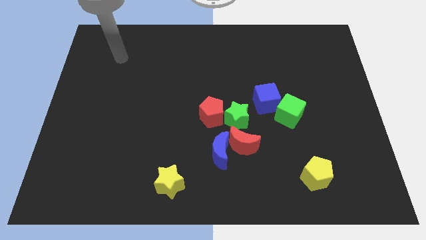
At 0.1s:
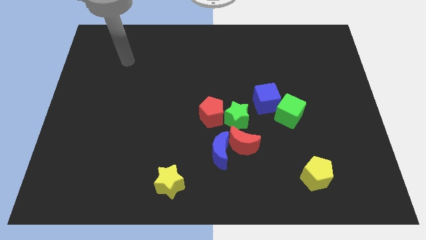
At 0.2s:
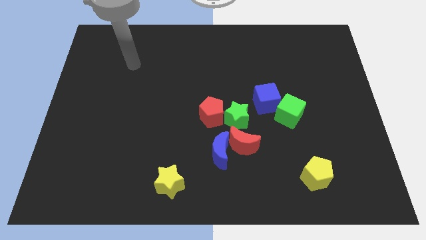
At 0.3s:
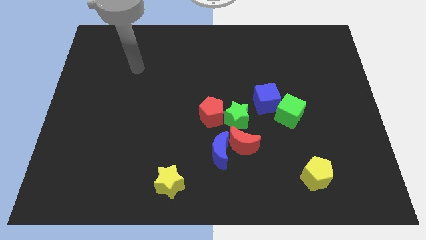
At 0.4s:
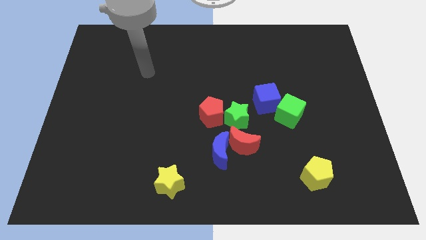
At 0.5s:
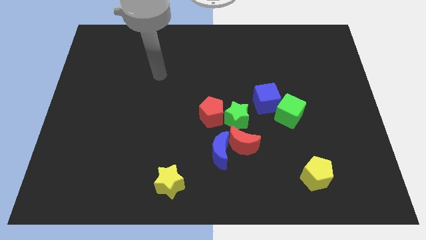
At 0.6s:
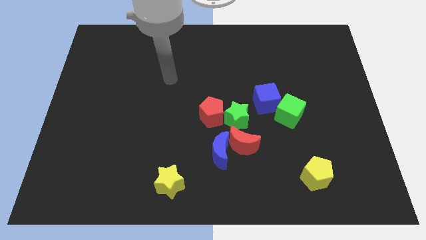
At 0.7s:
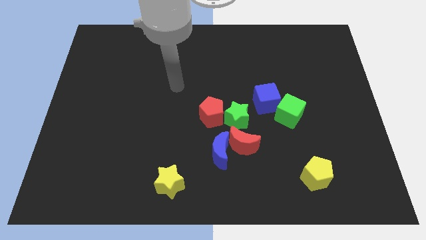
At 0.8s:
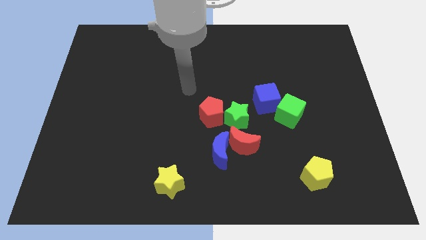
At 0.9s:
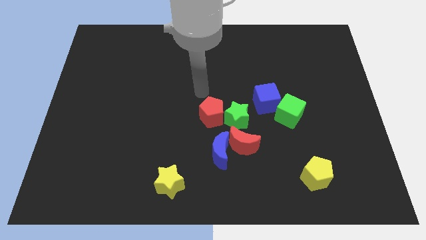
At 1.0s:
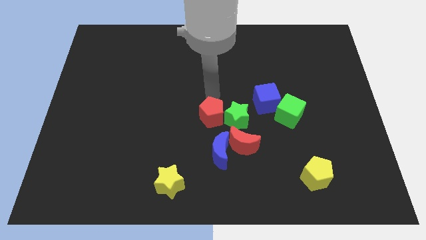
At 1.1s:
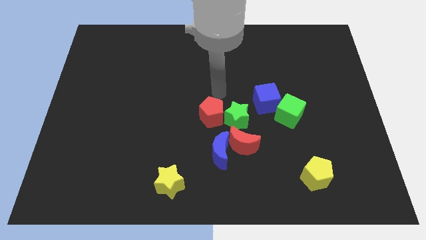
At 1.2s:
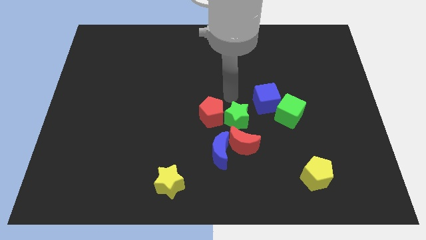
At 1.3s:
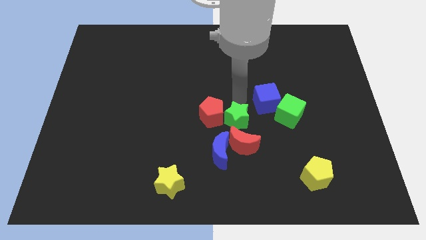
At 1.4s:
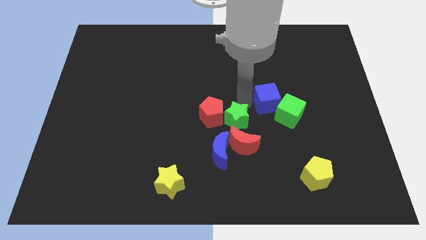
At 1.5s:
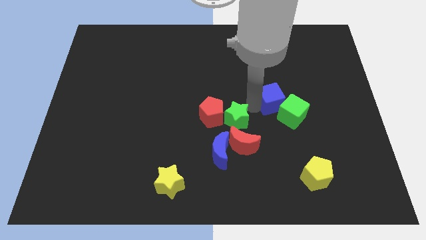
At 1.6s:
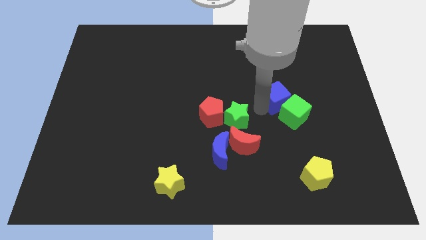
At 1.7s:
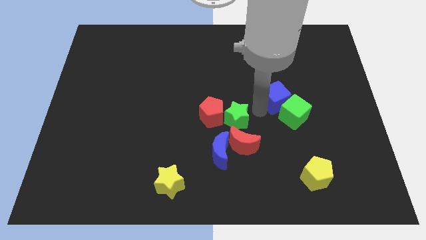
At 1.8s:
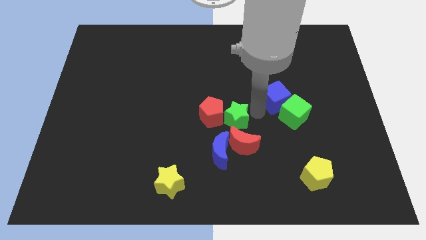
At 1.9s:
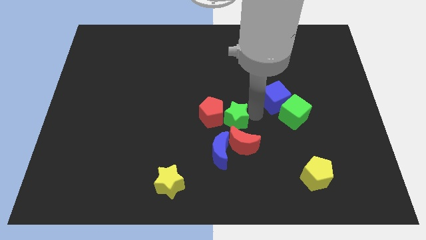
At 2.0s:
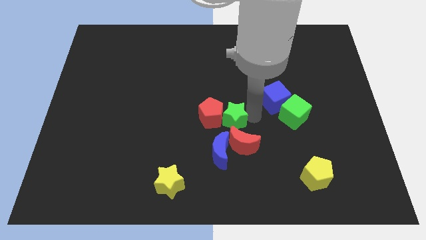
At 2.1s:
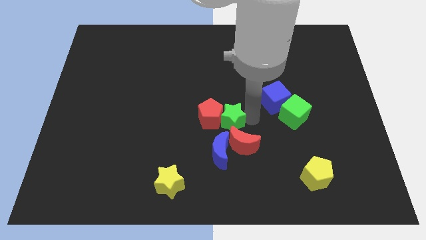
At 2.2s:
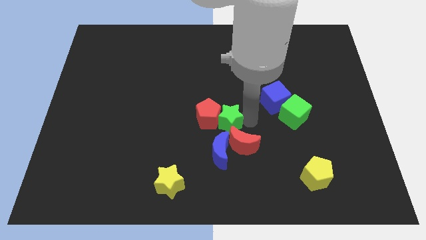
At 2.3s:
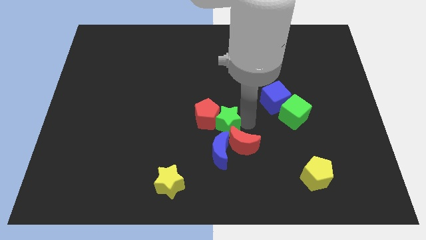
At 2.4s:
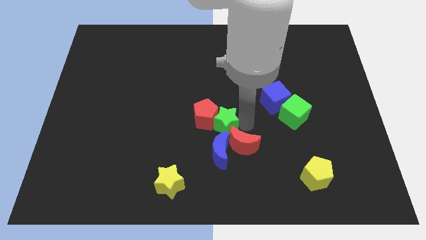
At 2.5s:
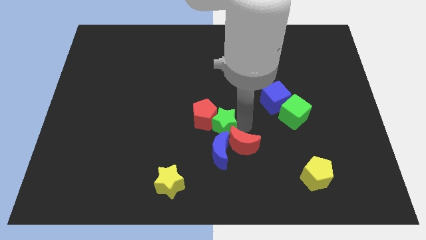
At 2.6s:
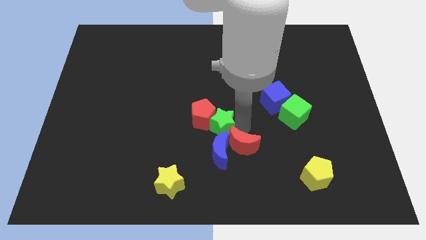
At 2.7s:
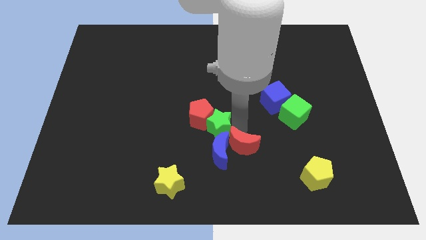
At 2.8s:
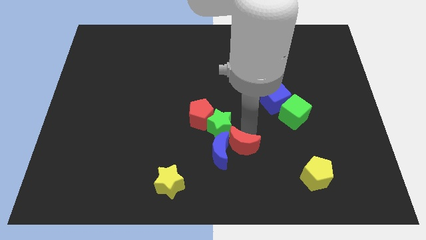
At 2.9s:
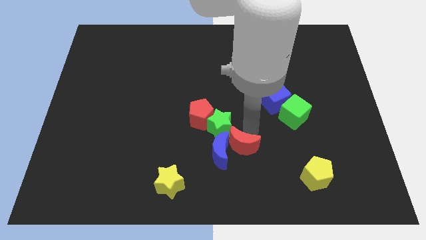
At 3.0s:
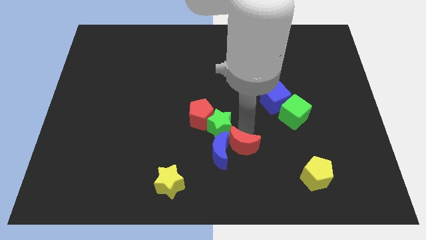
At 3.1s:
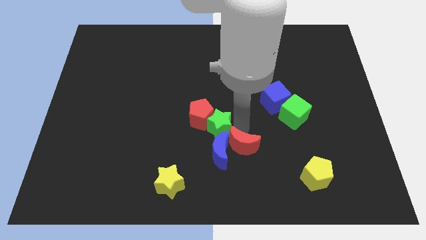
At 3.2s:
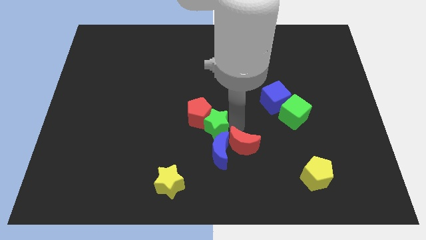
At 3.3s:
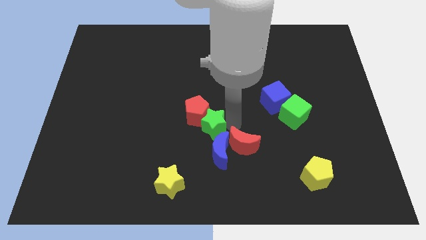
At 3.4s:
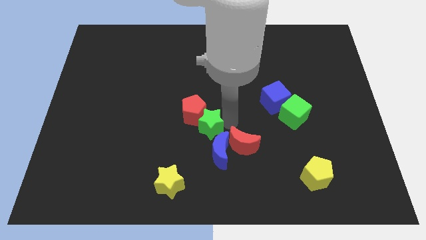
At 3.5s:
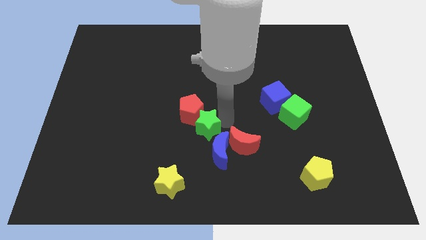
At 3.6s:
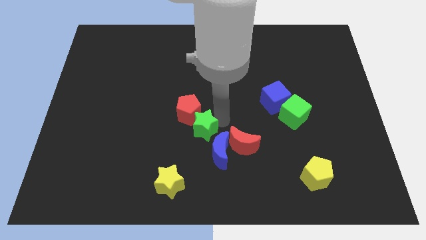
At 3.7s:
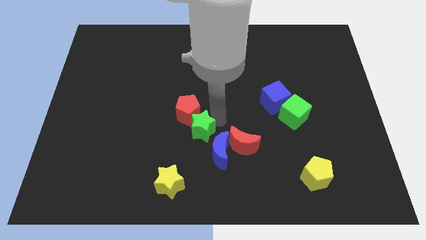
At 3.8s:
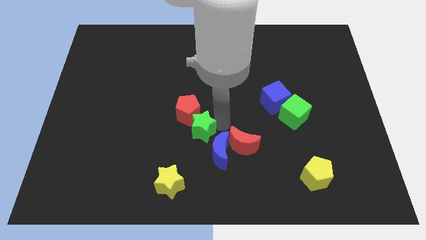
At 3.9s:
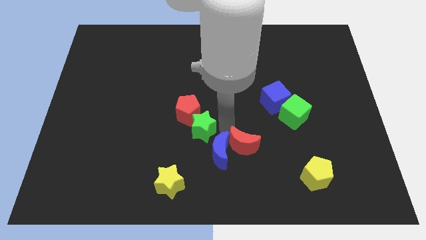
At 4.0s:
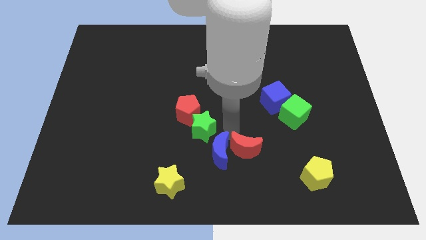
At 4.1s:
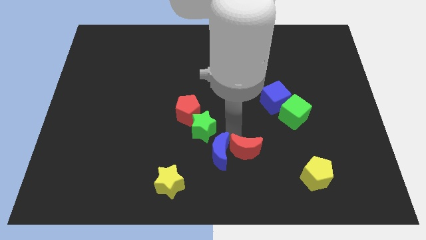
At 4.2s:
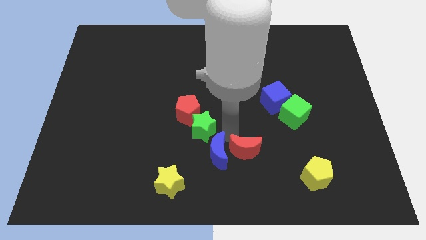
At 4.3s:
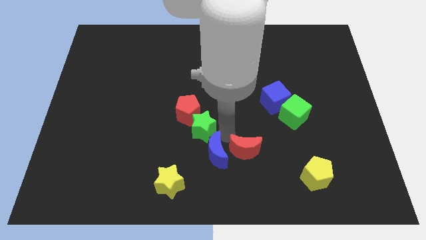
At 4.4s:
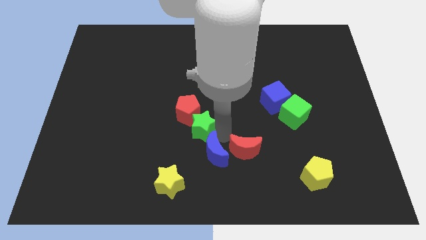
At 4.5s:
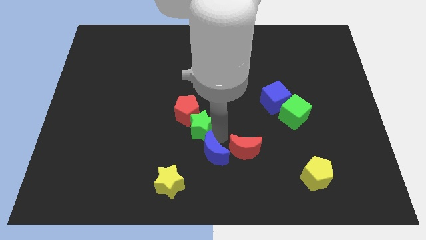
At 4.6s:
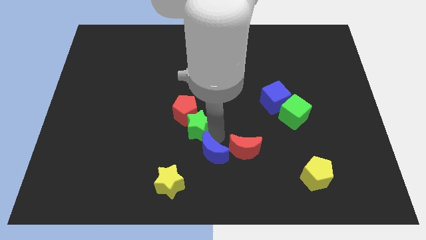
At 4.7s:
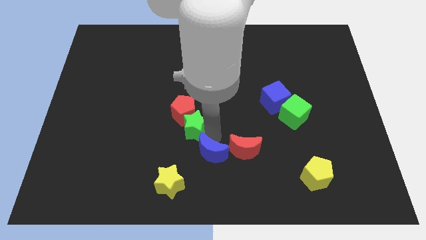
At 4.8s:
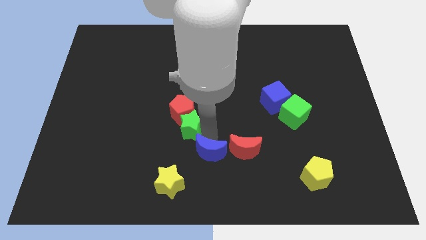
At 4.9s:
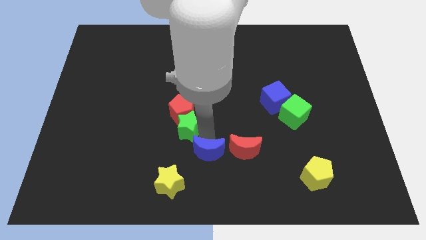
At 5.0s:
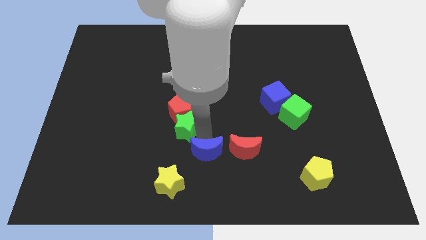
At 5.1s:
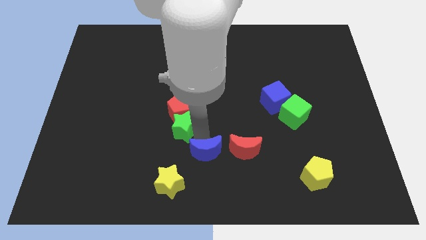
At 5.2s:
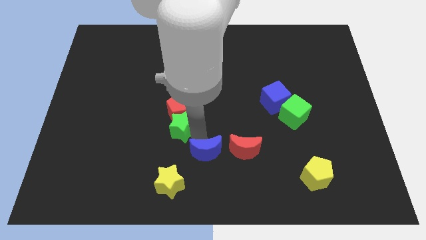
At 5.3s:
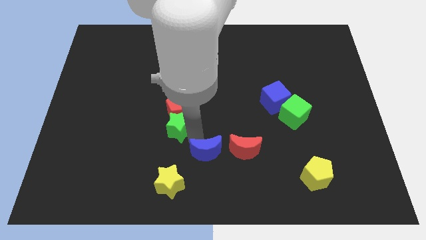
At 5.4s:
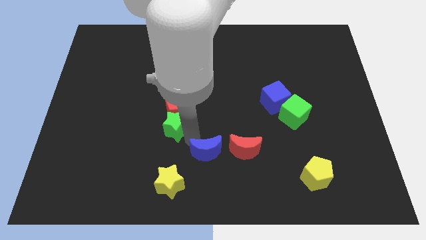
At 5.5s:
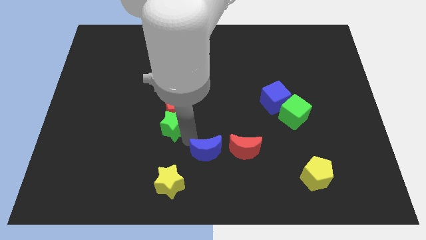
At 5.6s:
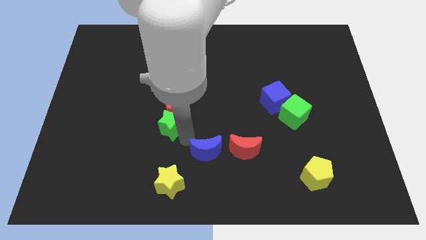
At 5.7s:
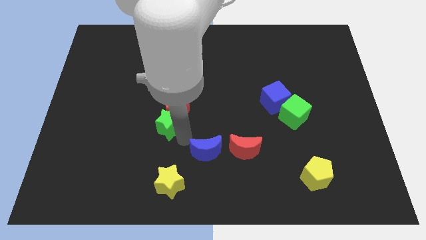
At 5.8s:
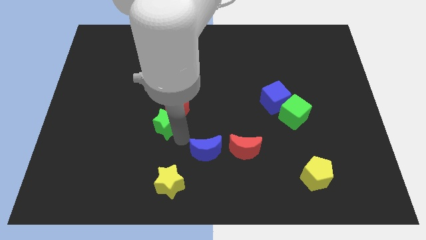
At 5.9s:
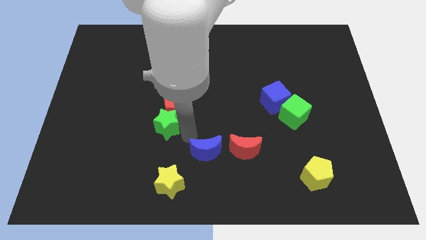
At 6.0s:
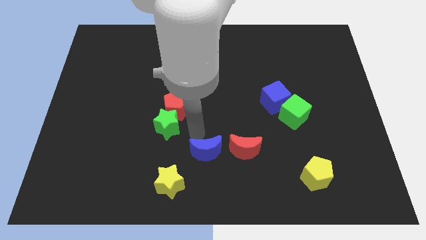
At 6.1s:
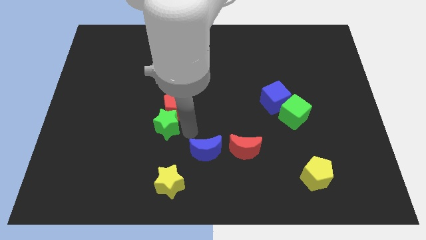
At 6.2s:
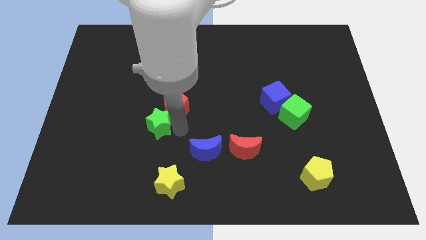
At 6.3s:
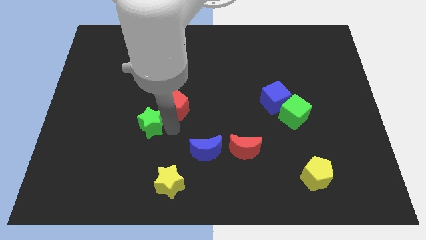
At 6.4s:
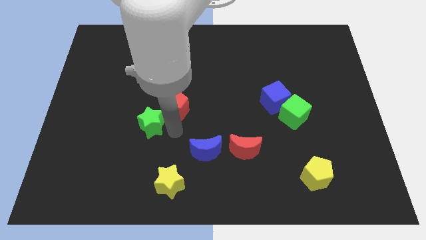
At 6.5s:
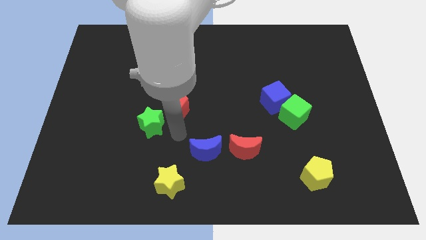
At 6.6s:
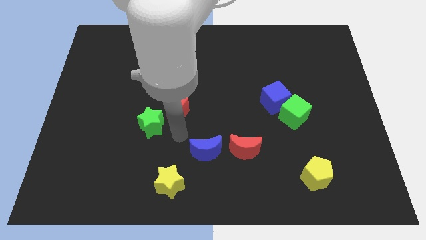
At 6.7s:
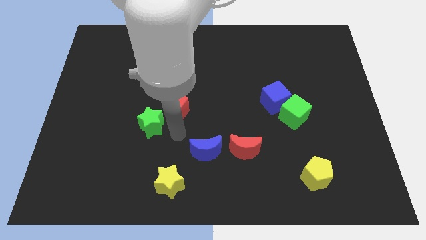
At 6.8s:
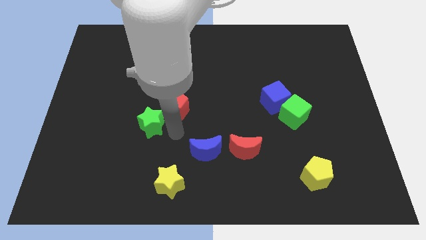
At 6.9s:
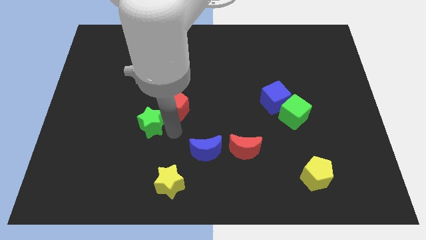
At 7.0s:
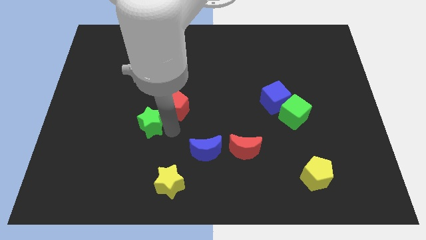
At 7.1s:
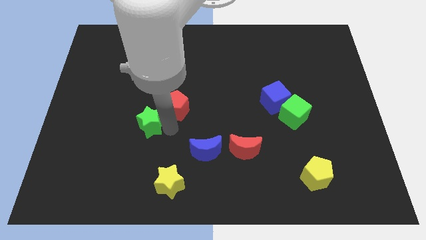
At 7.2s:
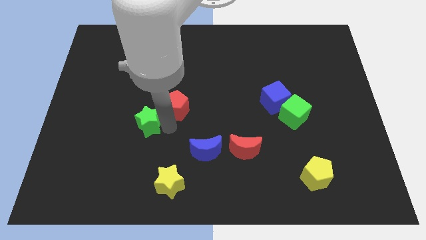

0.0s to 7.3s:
move the green star left

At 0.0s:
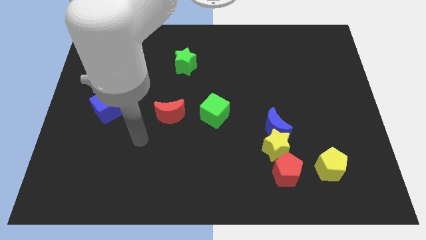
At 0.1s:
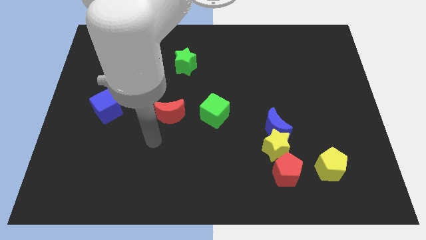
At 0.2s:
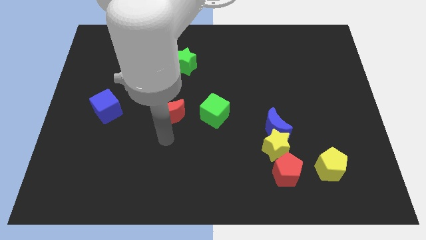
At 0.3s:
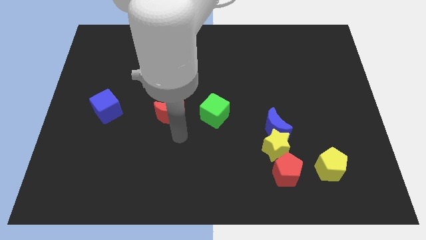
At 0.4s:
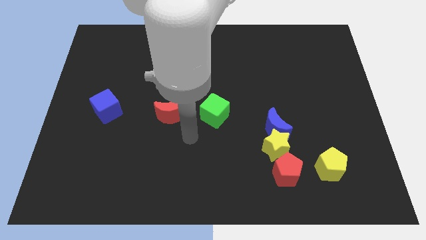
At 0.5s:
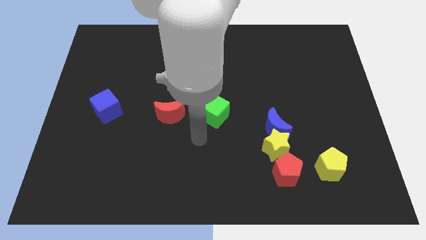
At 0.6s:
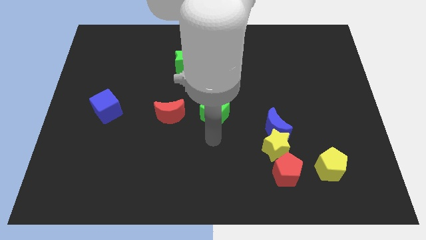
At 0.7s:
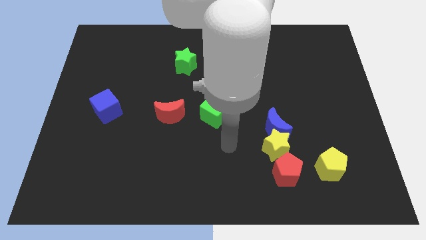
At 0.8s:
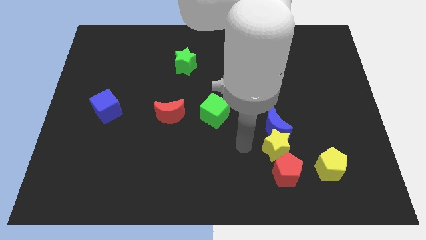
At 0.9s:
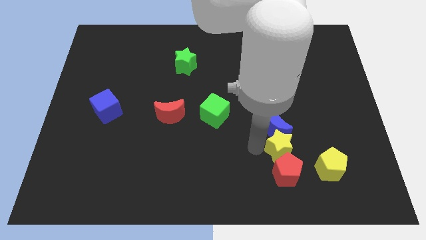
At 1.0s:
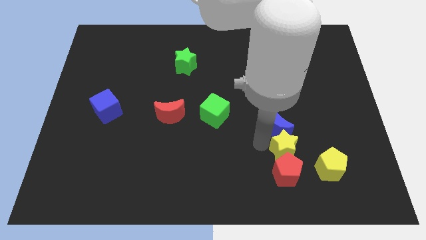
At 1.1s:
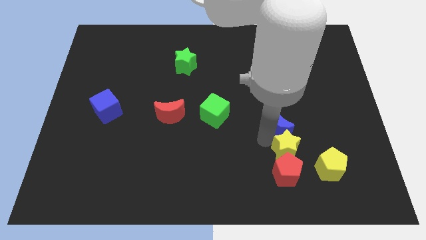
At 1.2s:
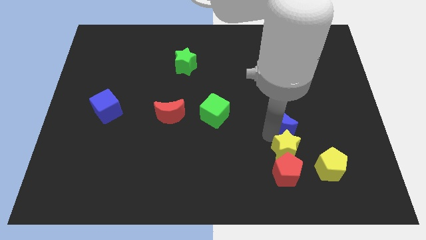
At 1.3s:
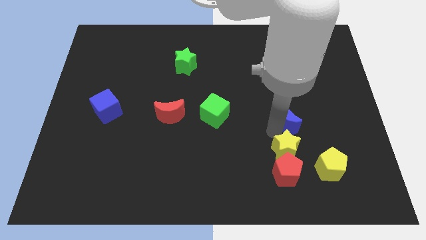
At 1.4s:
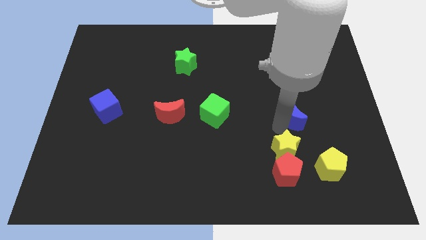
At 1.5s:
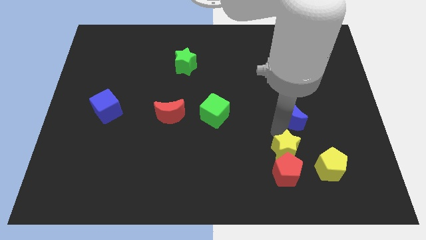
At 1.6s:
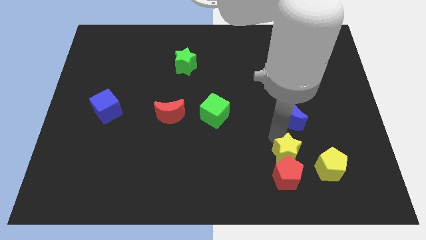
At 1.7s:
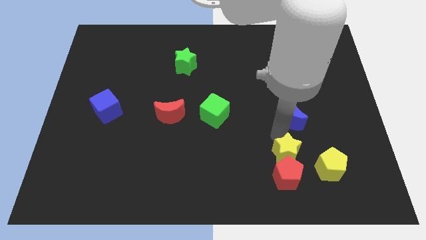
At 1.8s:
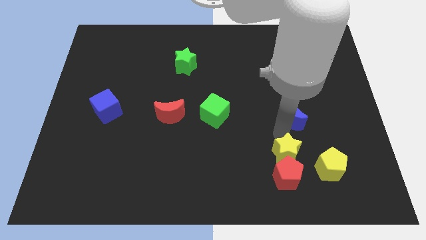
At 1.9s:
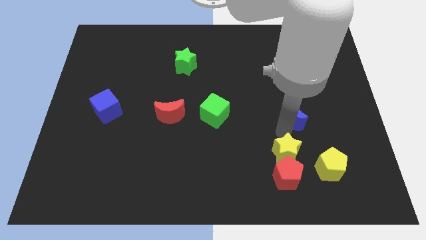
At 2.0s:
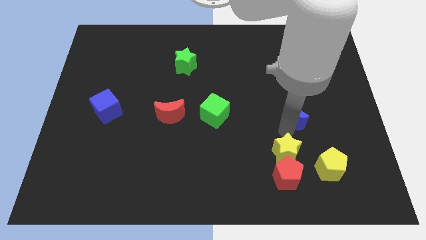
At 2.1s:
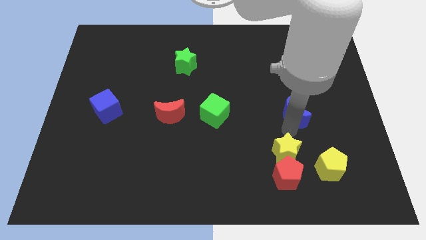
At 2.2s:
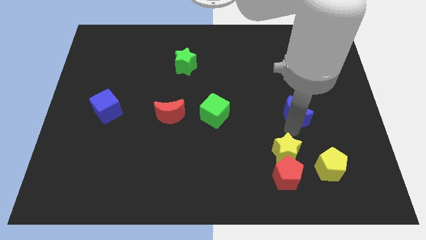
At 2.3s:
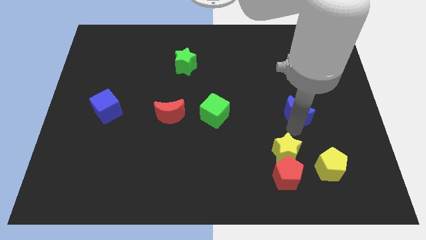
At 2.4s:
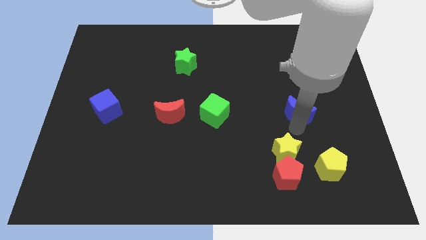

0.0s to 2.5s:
slightly slide the blue moon diagonally up and to the right
